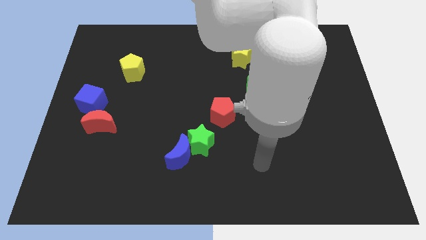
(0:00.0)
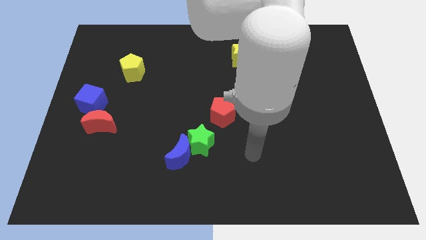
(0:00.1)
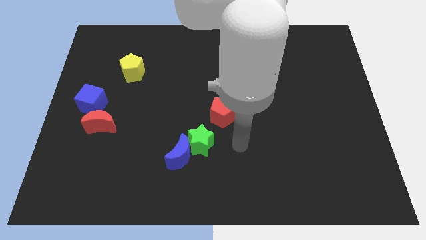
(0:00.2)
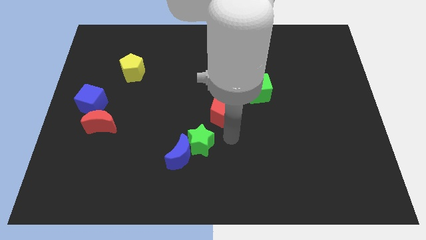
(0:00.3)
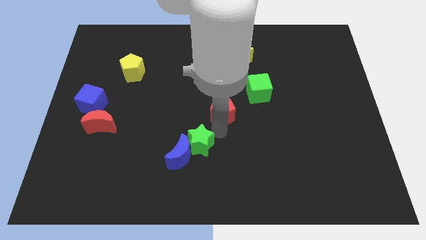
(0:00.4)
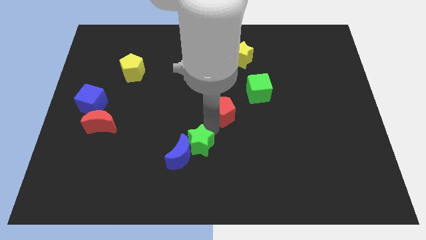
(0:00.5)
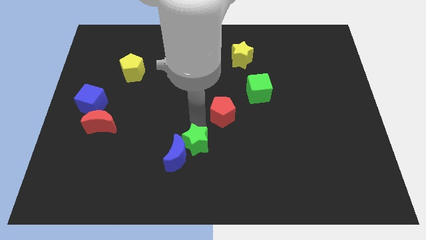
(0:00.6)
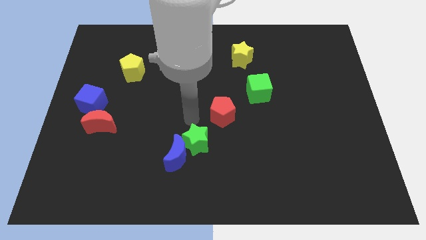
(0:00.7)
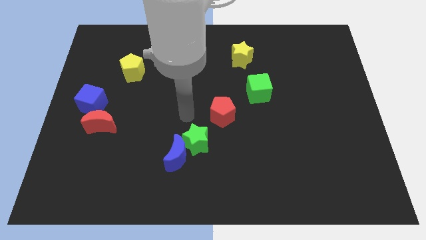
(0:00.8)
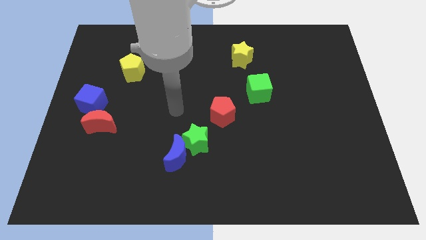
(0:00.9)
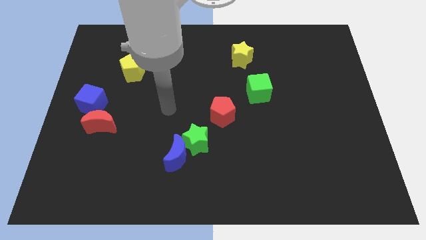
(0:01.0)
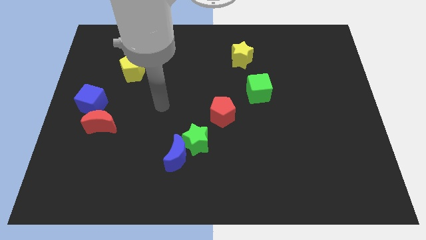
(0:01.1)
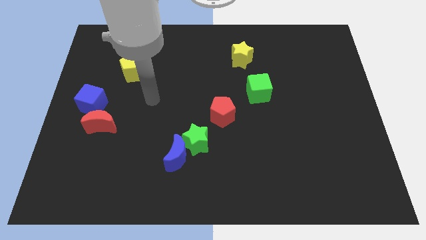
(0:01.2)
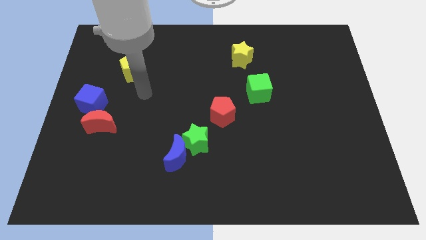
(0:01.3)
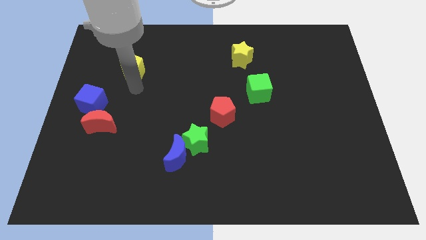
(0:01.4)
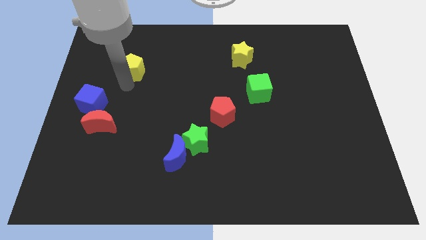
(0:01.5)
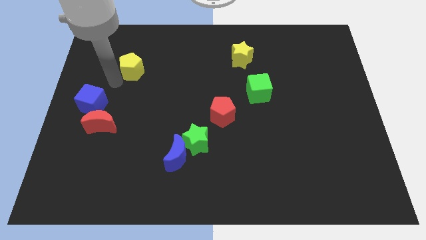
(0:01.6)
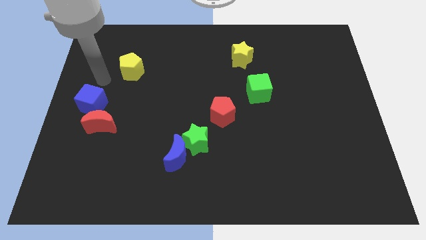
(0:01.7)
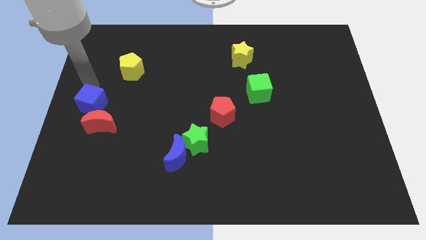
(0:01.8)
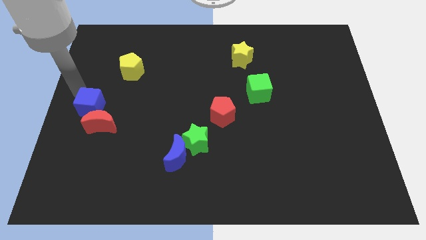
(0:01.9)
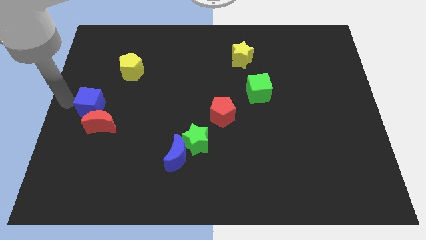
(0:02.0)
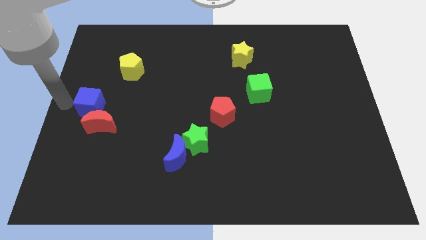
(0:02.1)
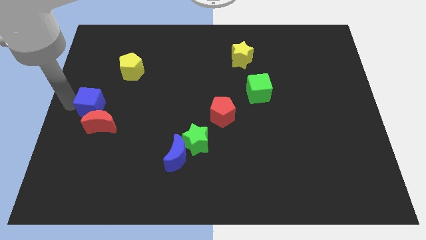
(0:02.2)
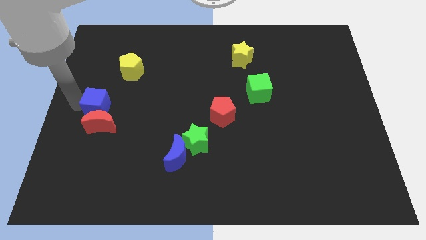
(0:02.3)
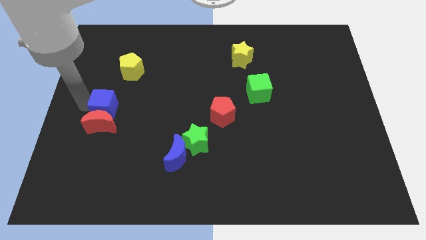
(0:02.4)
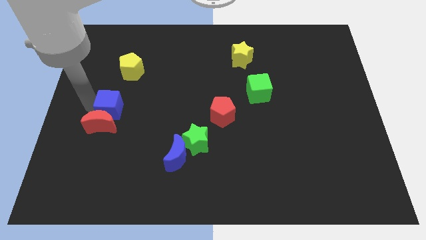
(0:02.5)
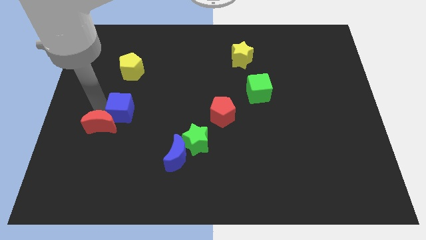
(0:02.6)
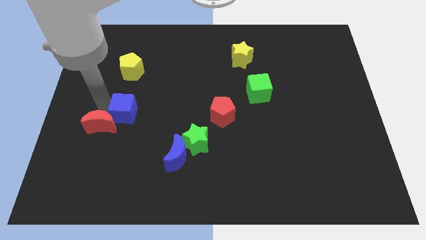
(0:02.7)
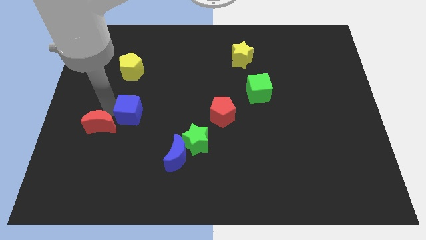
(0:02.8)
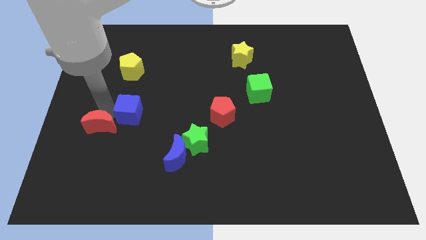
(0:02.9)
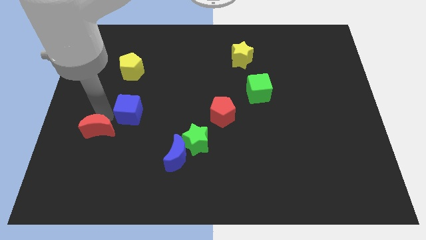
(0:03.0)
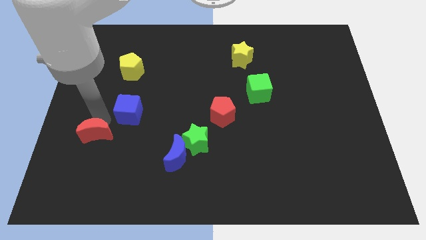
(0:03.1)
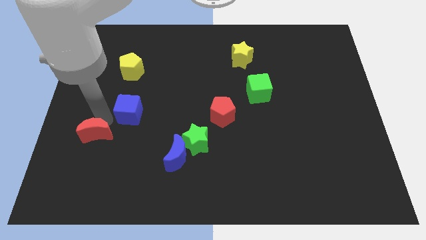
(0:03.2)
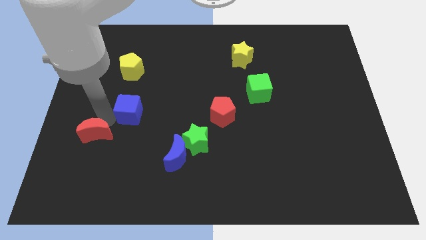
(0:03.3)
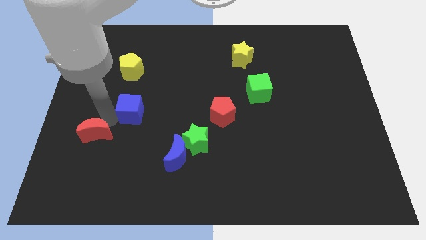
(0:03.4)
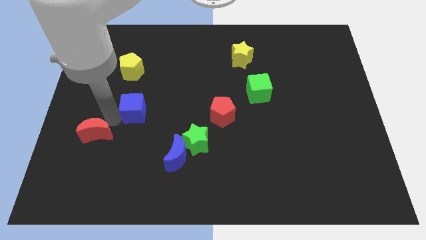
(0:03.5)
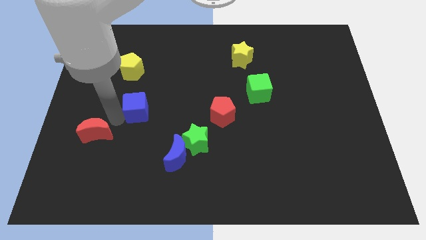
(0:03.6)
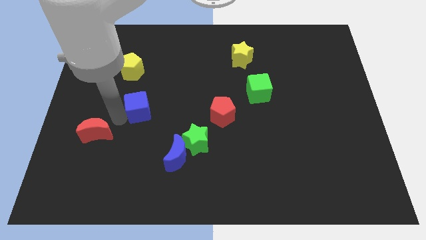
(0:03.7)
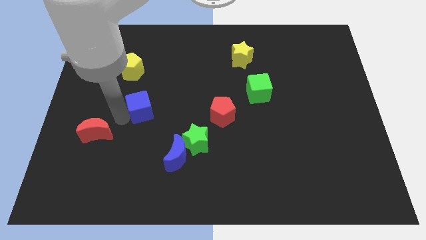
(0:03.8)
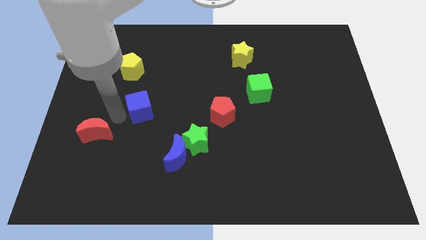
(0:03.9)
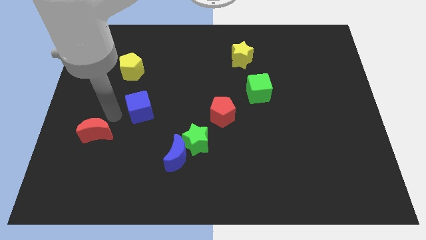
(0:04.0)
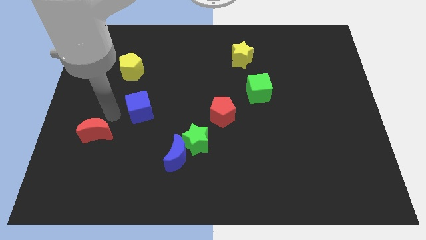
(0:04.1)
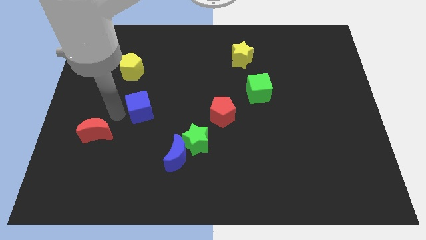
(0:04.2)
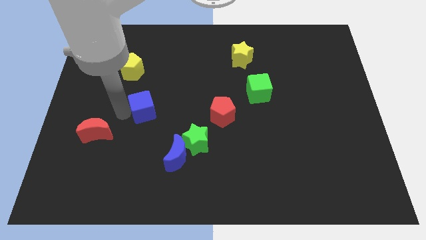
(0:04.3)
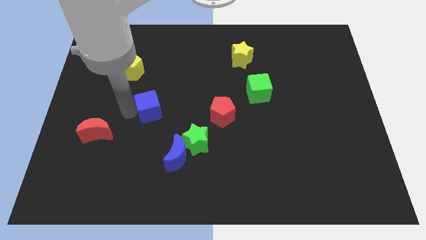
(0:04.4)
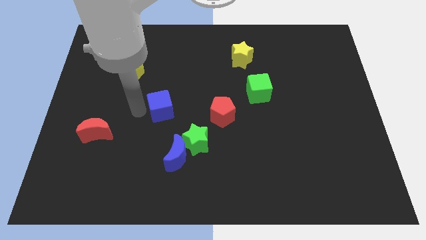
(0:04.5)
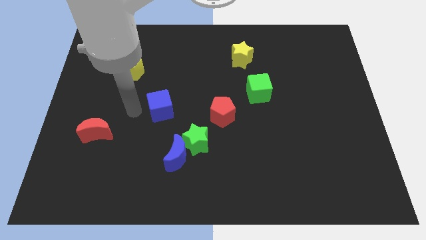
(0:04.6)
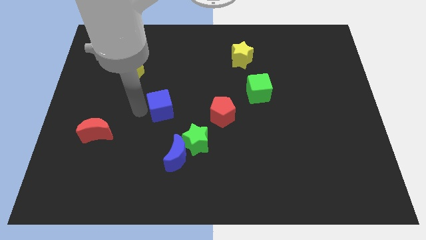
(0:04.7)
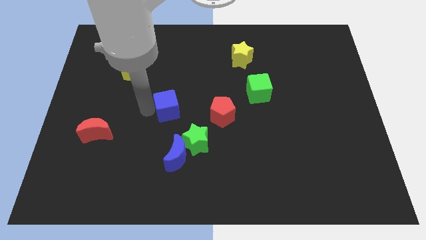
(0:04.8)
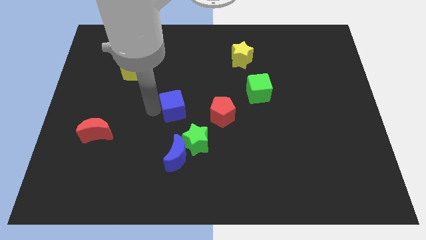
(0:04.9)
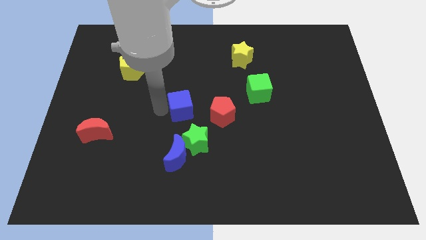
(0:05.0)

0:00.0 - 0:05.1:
slide the blue cube to the top of the green star

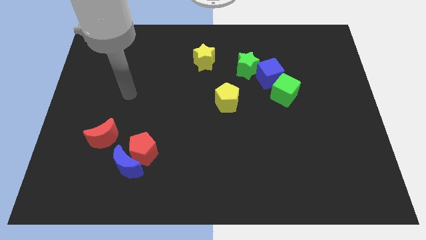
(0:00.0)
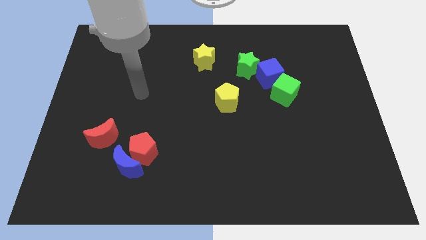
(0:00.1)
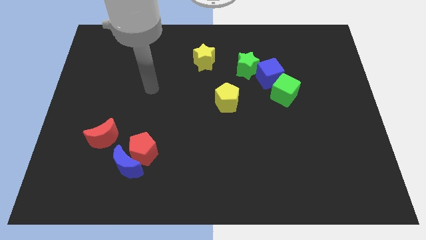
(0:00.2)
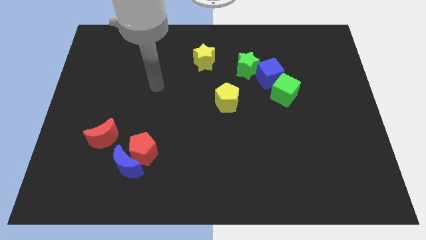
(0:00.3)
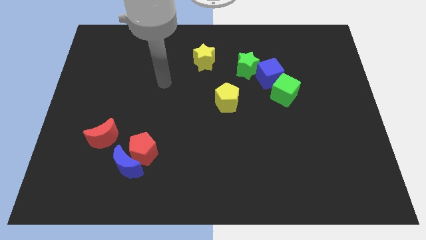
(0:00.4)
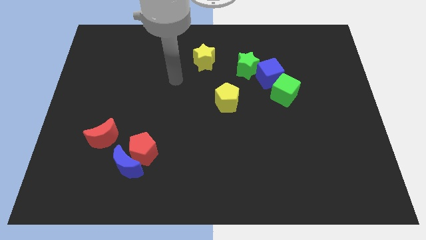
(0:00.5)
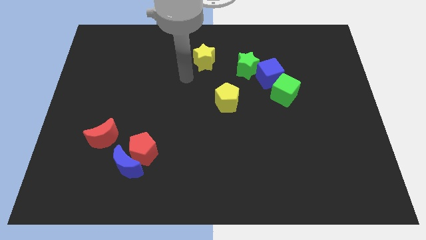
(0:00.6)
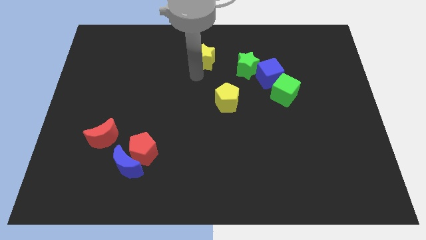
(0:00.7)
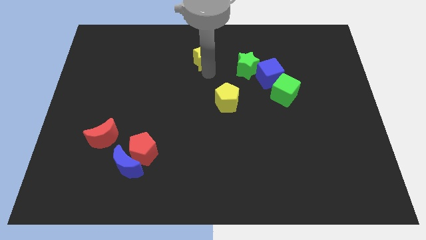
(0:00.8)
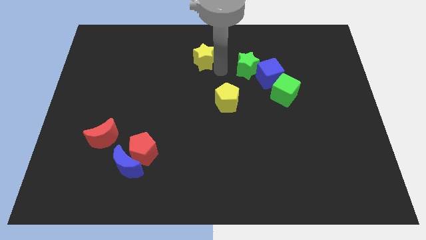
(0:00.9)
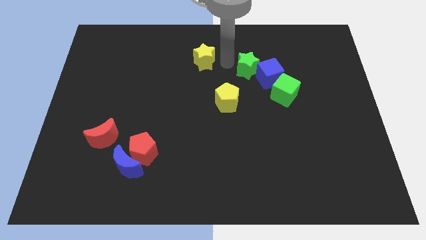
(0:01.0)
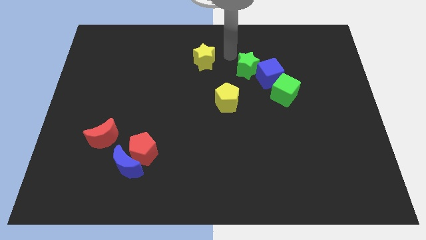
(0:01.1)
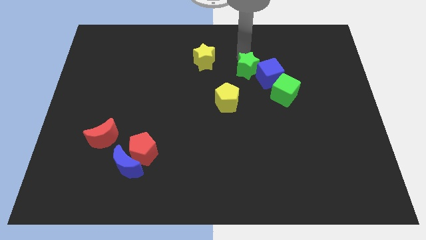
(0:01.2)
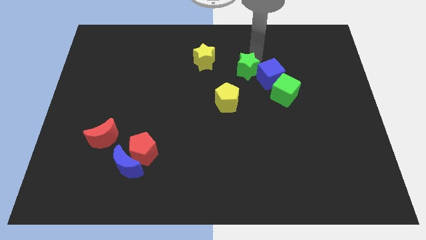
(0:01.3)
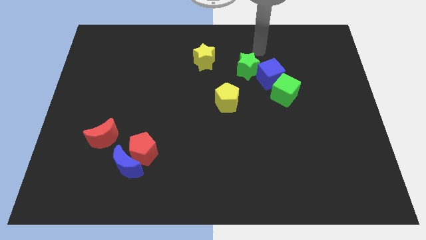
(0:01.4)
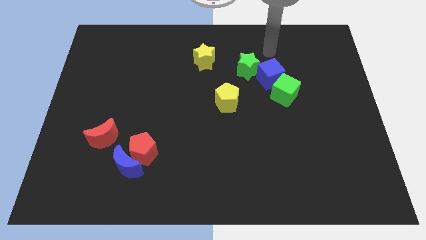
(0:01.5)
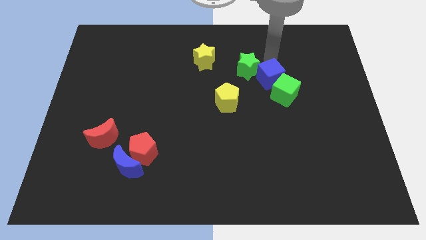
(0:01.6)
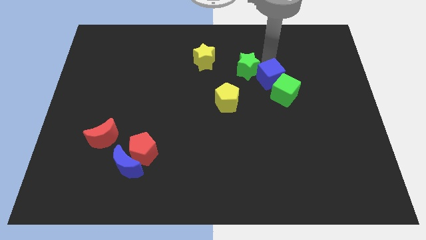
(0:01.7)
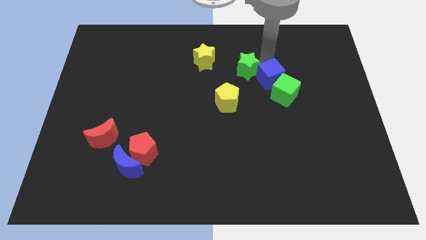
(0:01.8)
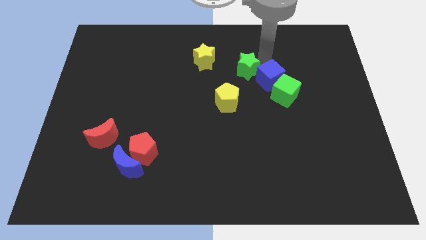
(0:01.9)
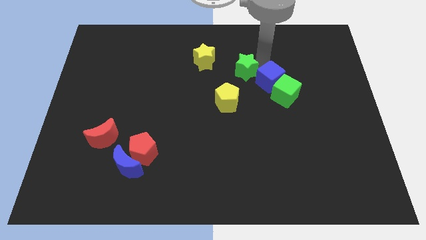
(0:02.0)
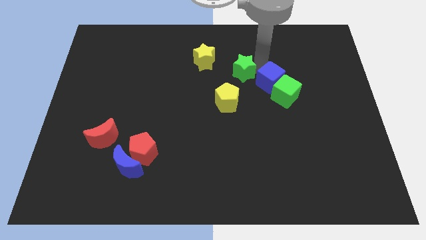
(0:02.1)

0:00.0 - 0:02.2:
put the green star to the bottom right of the yellow star
